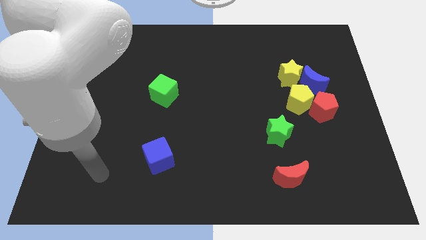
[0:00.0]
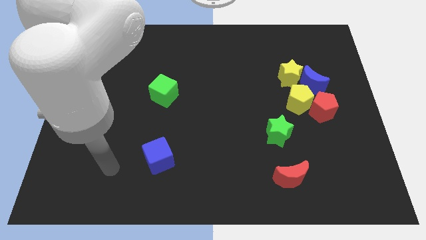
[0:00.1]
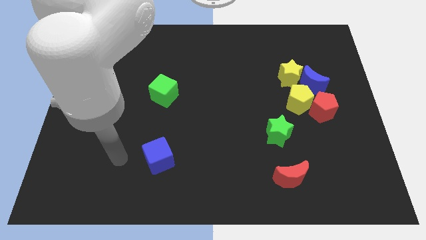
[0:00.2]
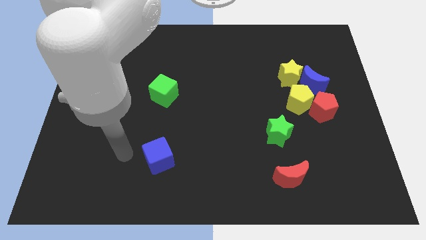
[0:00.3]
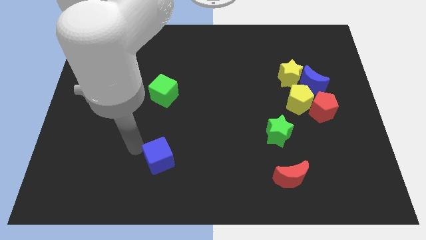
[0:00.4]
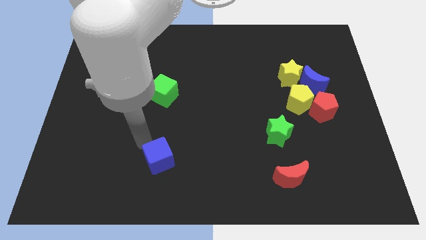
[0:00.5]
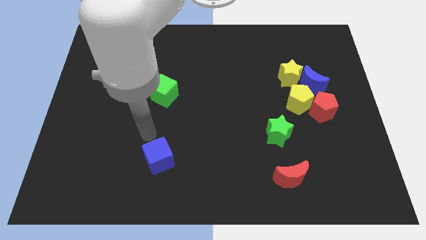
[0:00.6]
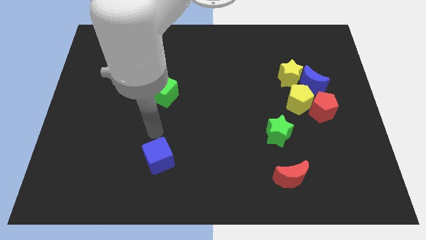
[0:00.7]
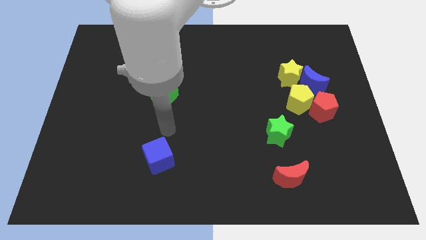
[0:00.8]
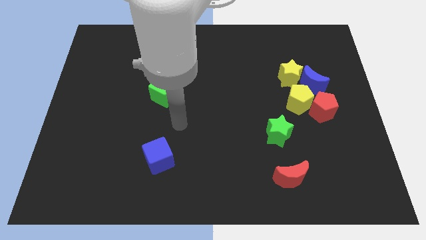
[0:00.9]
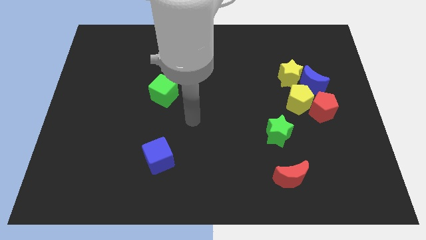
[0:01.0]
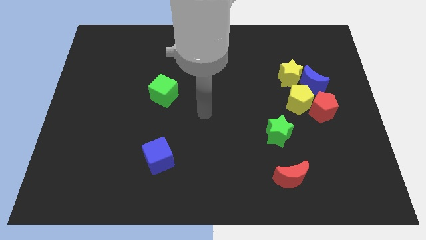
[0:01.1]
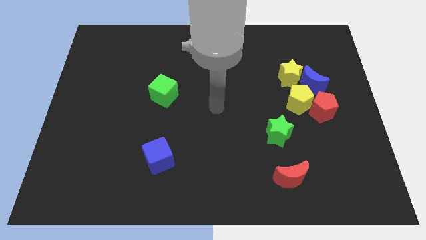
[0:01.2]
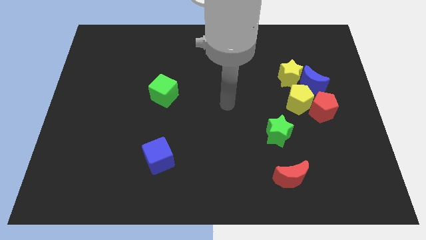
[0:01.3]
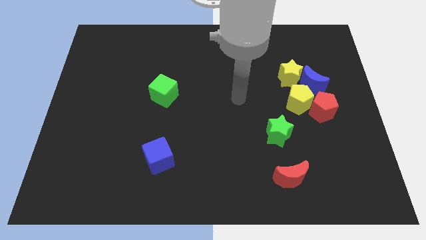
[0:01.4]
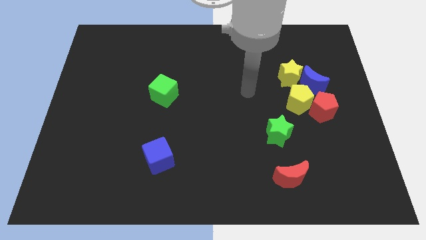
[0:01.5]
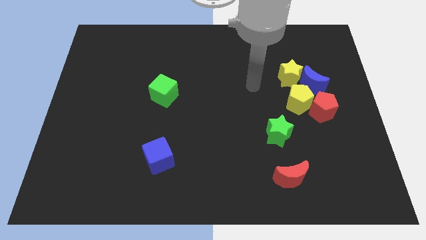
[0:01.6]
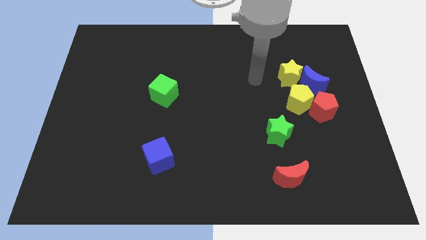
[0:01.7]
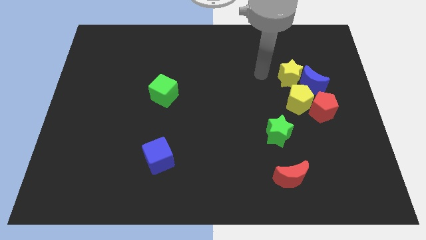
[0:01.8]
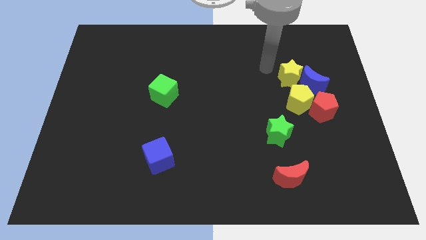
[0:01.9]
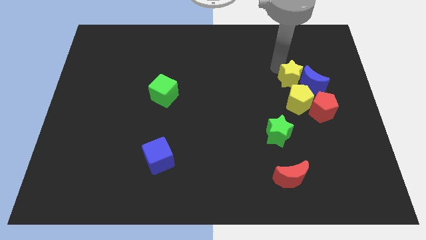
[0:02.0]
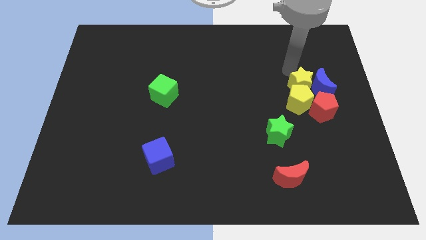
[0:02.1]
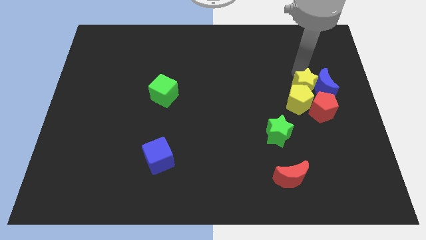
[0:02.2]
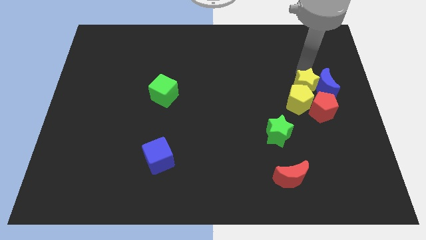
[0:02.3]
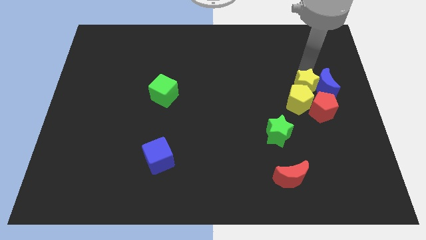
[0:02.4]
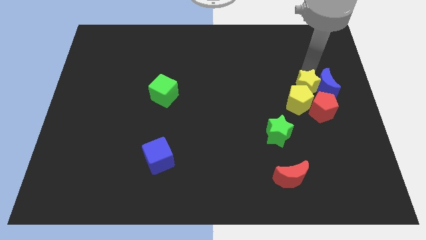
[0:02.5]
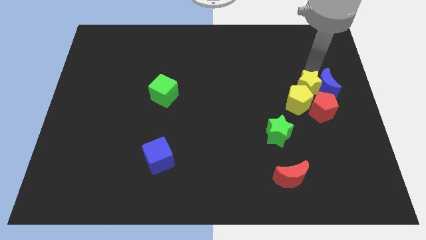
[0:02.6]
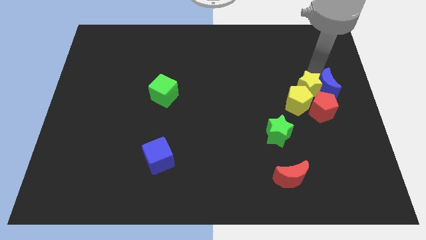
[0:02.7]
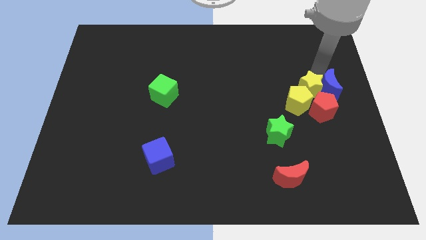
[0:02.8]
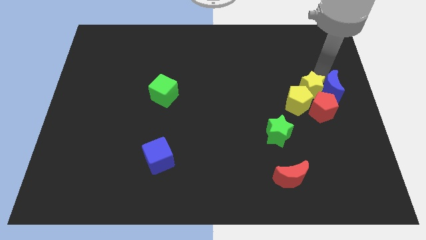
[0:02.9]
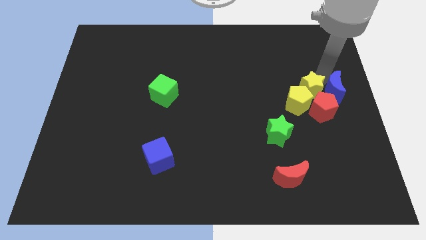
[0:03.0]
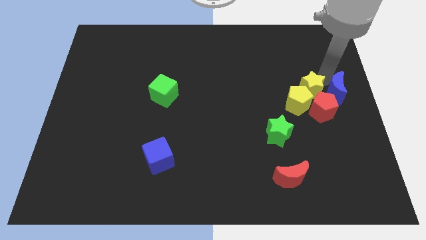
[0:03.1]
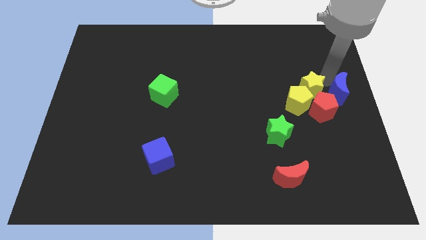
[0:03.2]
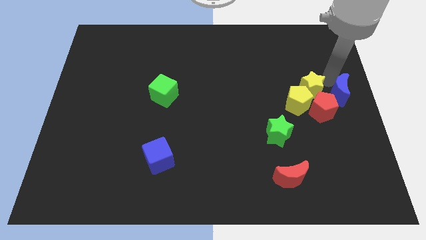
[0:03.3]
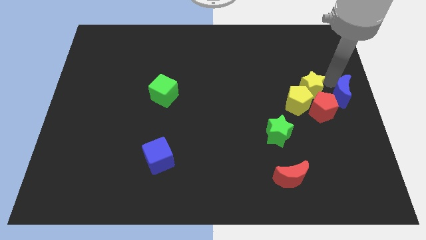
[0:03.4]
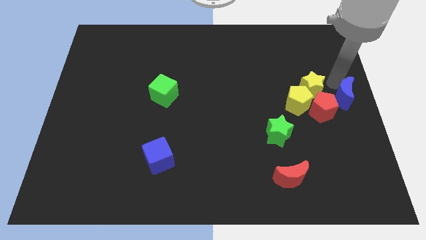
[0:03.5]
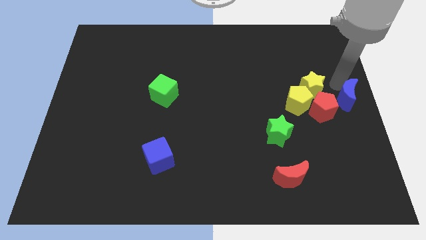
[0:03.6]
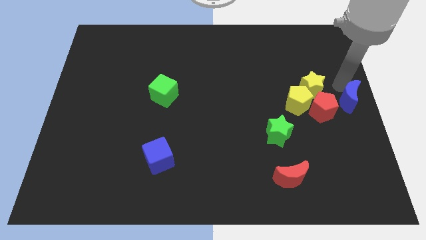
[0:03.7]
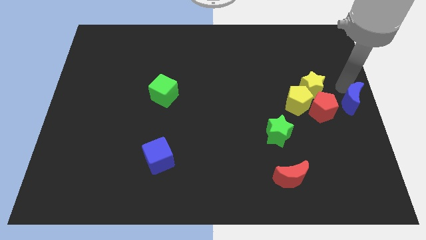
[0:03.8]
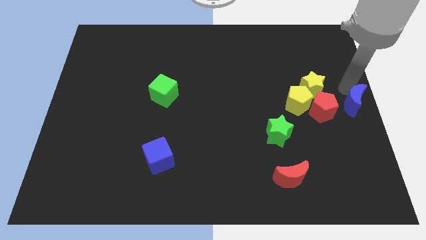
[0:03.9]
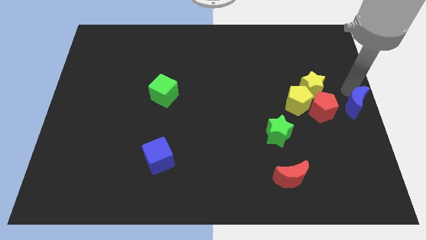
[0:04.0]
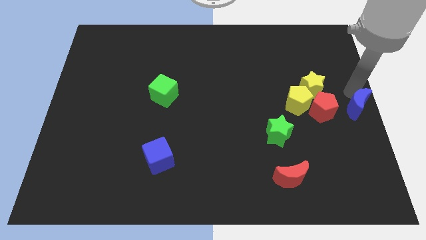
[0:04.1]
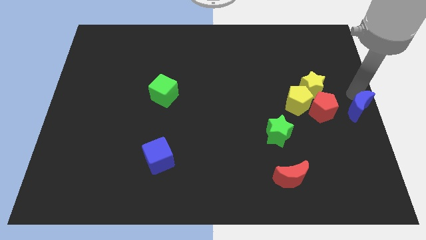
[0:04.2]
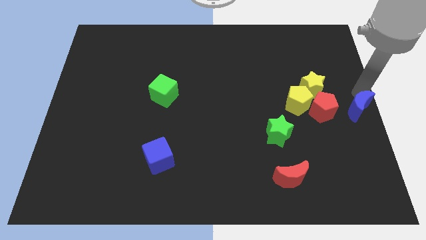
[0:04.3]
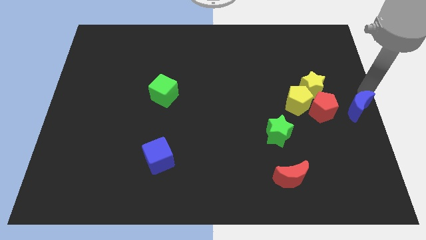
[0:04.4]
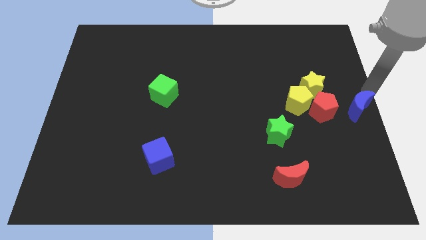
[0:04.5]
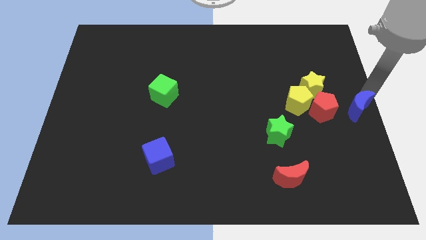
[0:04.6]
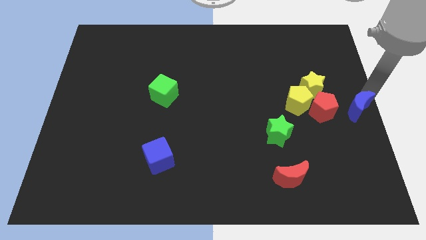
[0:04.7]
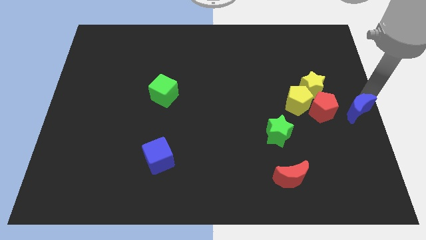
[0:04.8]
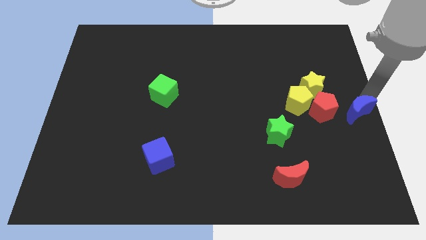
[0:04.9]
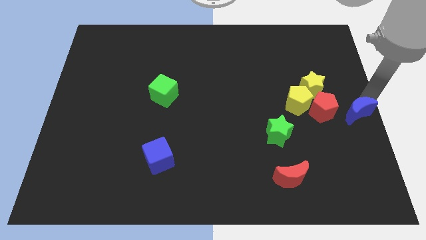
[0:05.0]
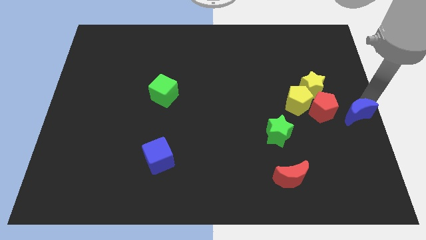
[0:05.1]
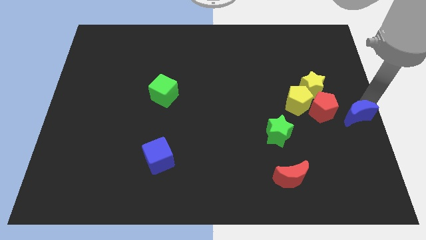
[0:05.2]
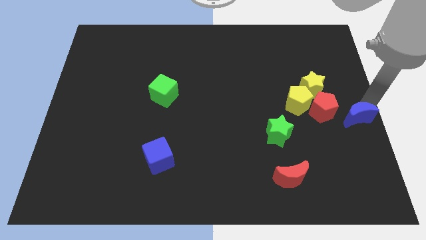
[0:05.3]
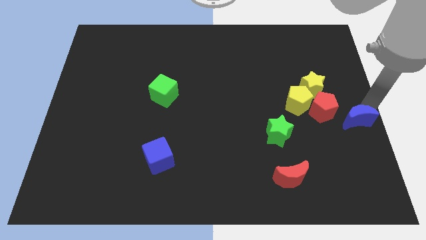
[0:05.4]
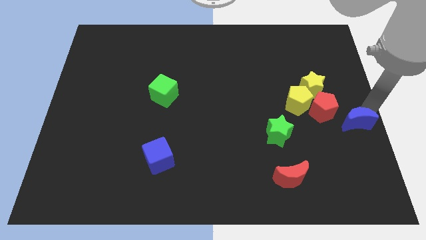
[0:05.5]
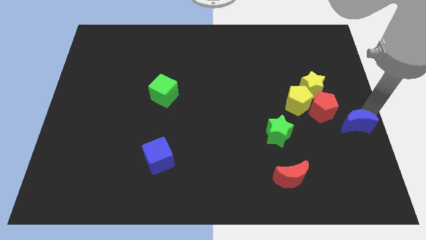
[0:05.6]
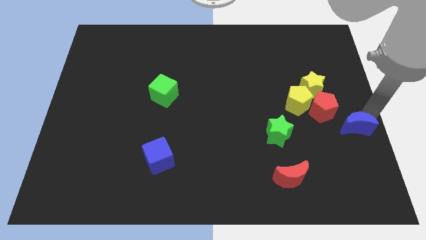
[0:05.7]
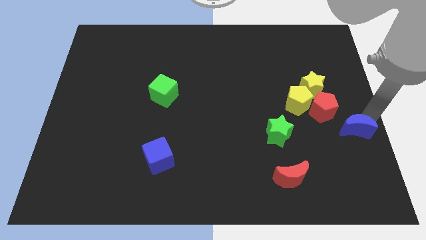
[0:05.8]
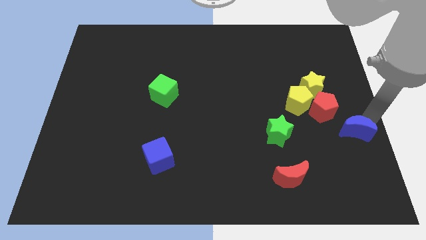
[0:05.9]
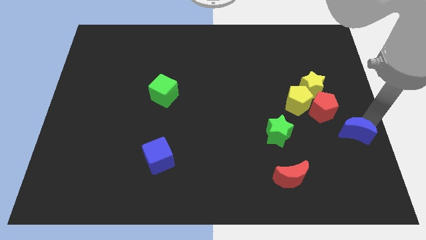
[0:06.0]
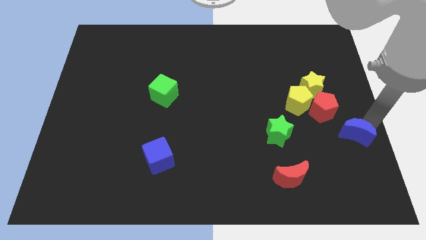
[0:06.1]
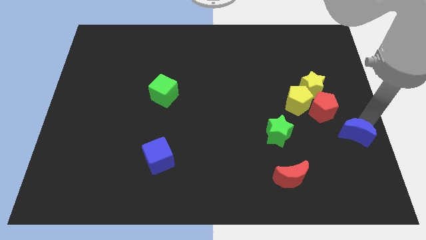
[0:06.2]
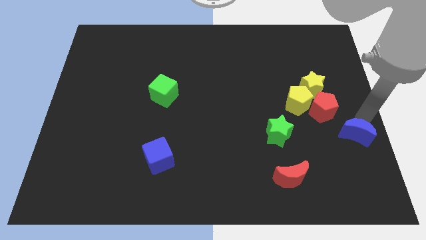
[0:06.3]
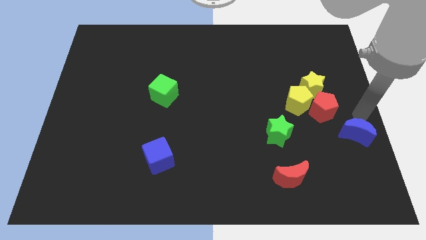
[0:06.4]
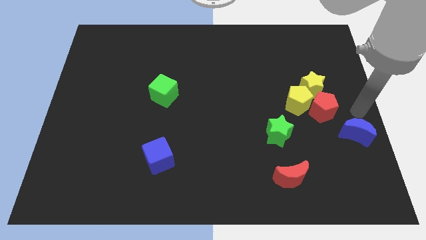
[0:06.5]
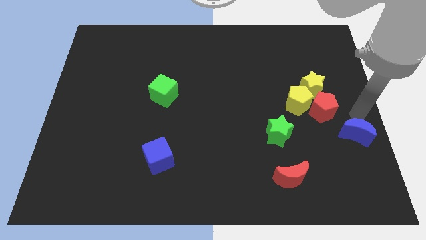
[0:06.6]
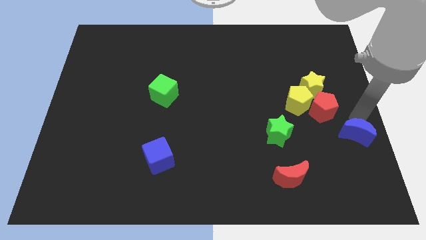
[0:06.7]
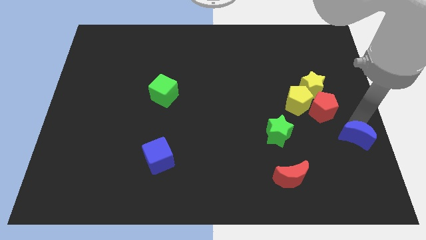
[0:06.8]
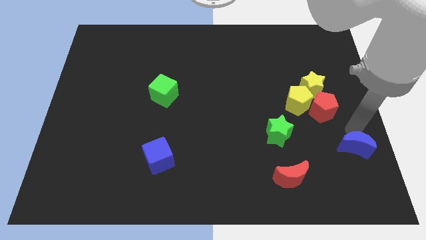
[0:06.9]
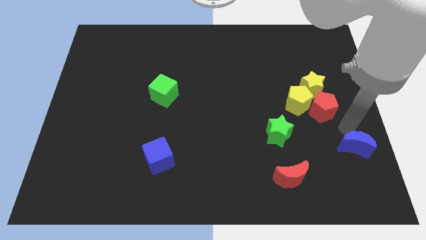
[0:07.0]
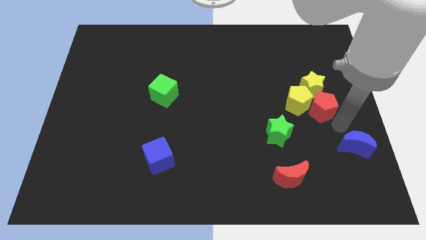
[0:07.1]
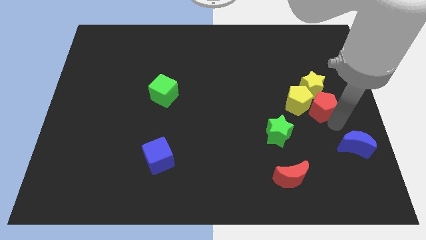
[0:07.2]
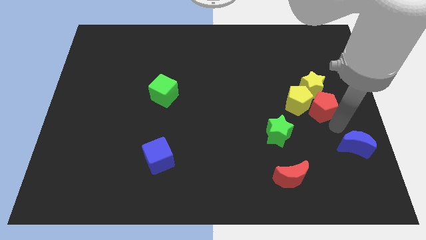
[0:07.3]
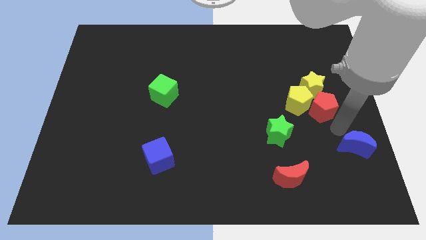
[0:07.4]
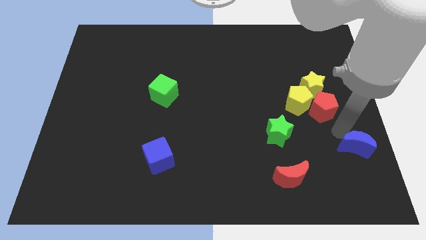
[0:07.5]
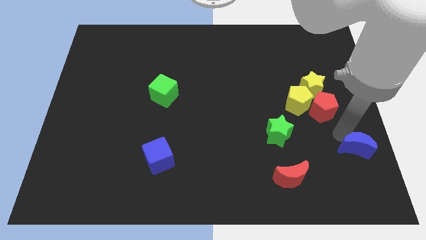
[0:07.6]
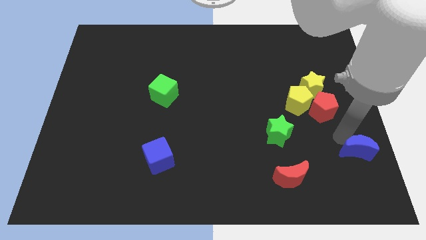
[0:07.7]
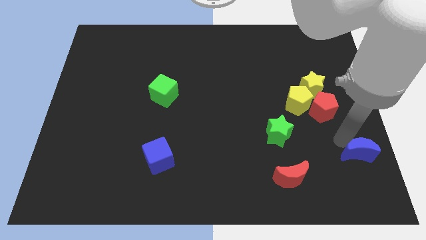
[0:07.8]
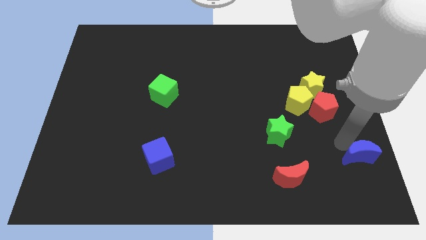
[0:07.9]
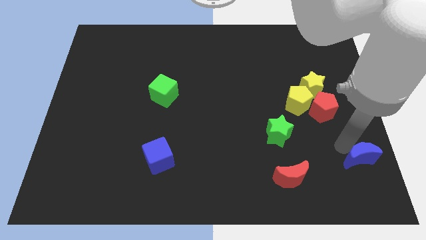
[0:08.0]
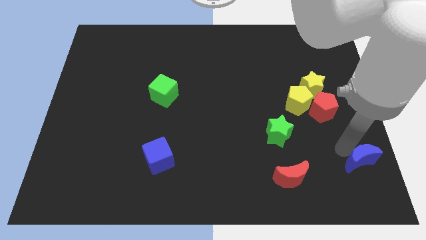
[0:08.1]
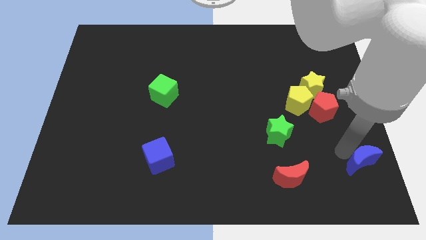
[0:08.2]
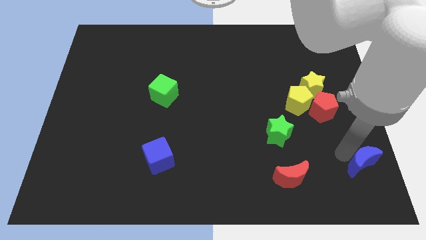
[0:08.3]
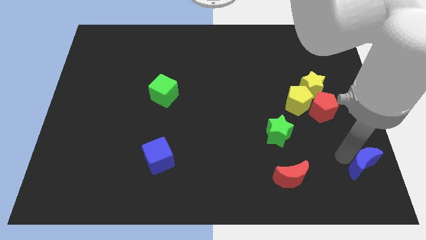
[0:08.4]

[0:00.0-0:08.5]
slide the blue moon to the bottom right of the board
